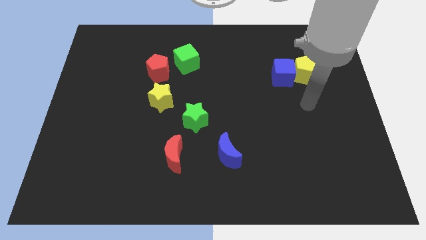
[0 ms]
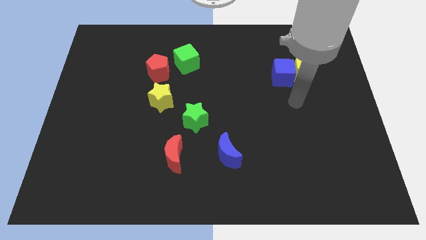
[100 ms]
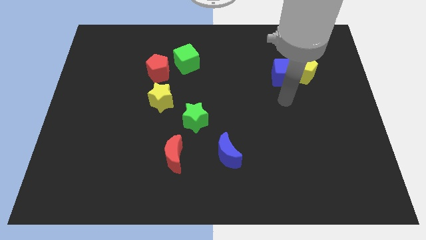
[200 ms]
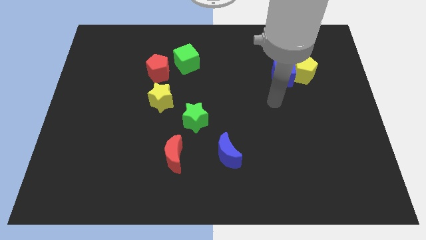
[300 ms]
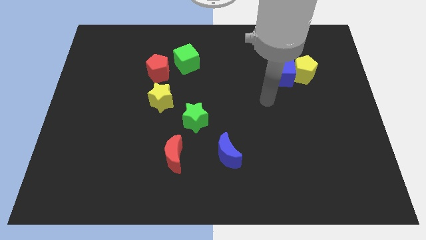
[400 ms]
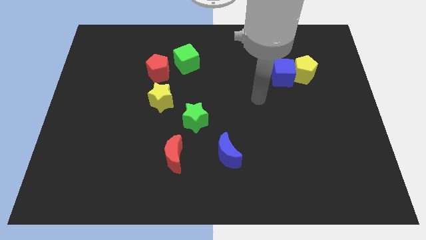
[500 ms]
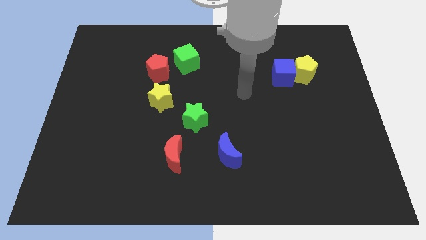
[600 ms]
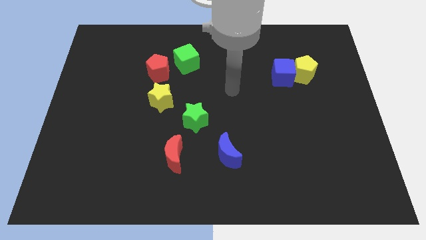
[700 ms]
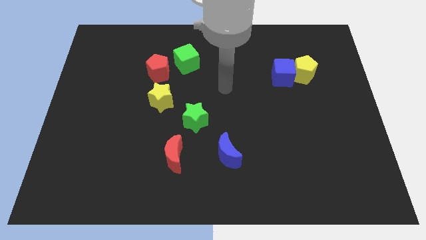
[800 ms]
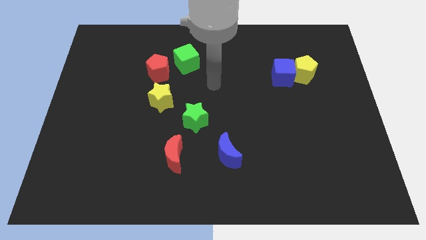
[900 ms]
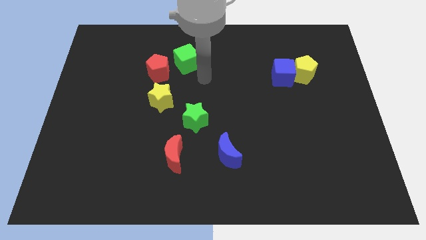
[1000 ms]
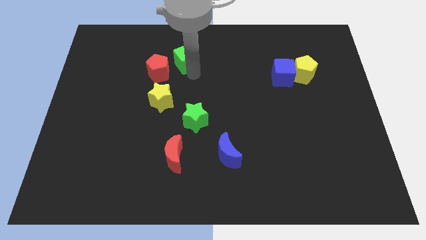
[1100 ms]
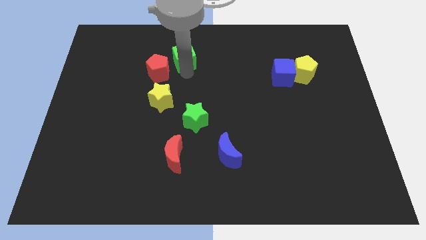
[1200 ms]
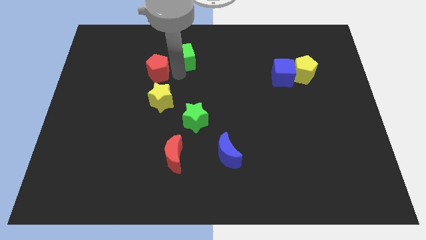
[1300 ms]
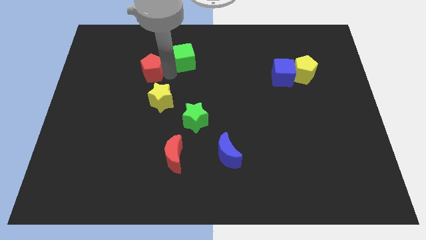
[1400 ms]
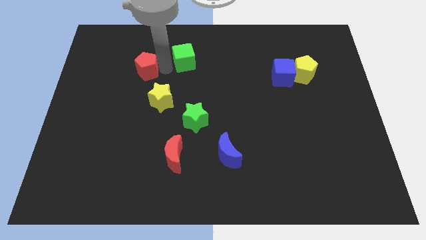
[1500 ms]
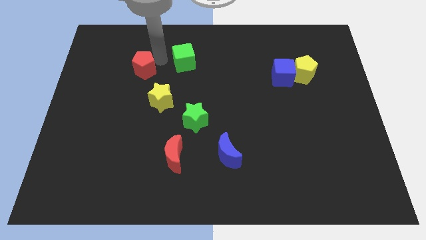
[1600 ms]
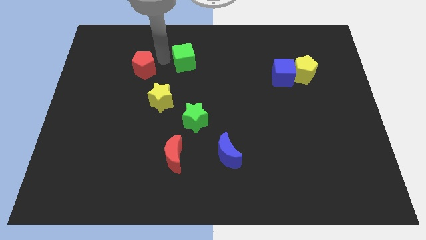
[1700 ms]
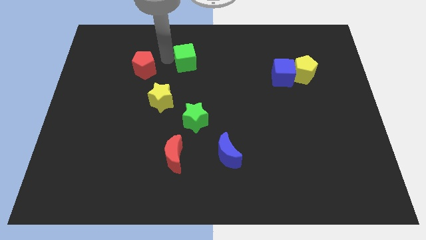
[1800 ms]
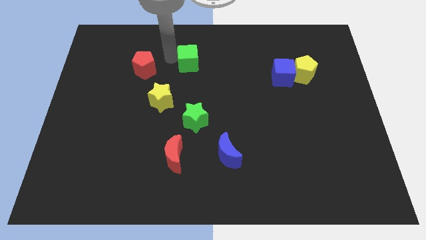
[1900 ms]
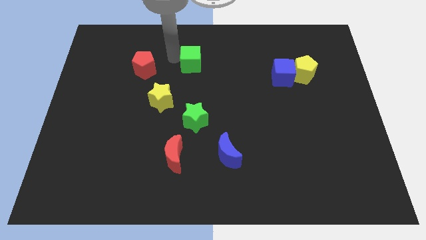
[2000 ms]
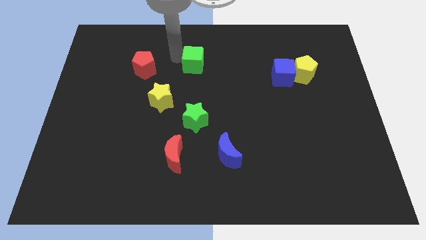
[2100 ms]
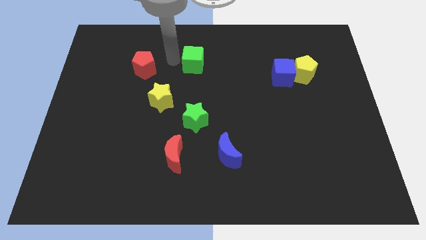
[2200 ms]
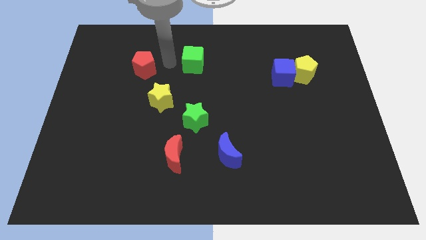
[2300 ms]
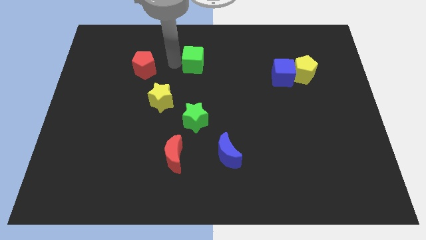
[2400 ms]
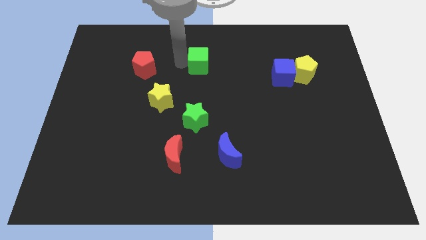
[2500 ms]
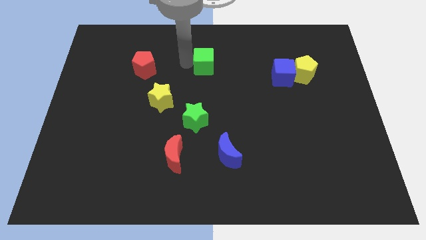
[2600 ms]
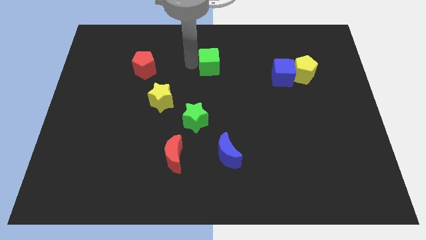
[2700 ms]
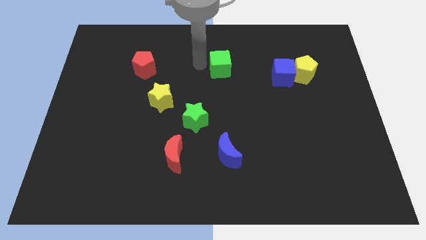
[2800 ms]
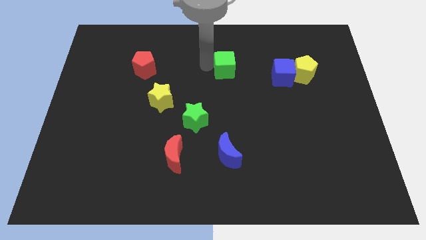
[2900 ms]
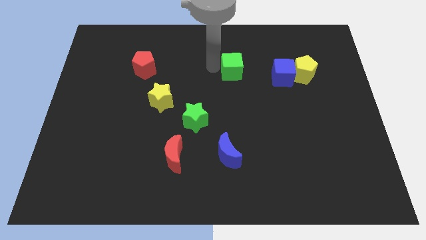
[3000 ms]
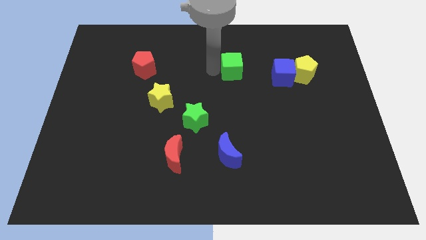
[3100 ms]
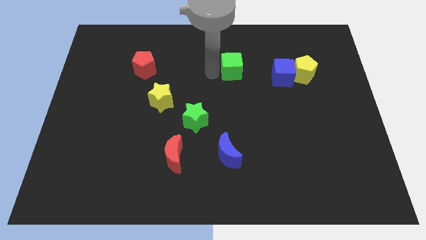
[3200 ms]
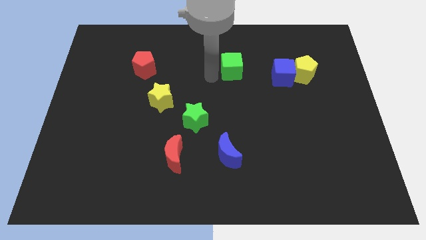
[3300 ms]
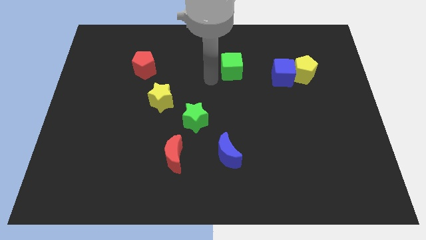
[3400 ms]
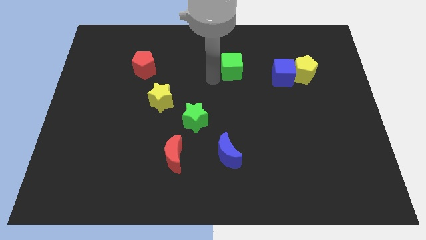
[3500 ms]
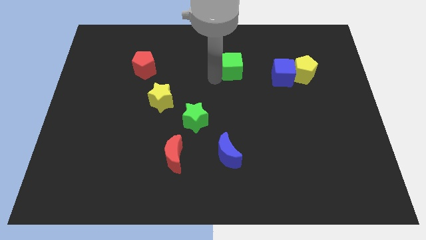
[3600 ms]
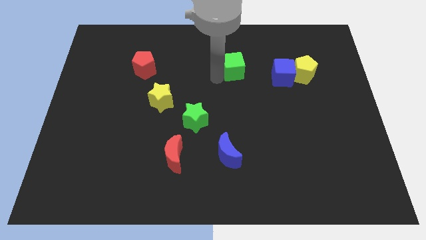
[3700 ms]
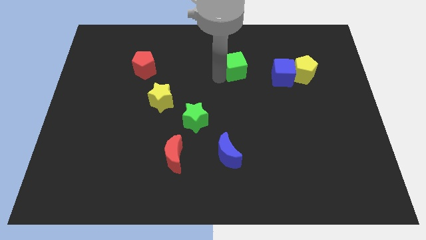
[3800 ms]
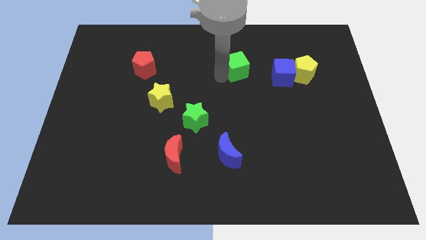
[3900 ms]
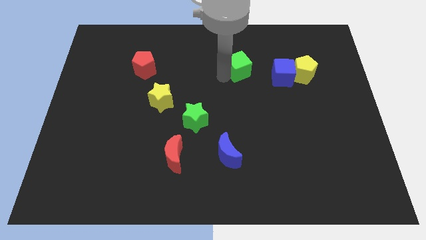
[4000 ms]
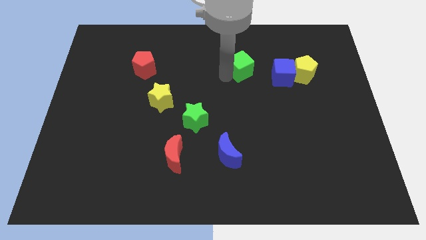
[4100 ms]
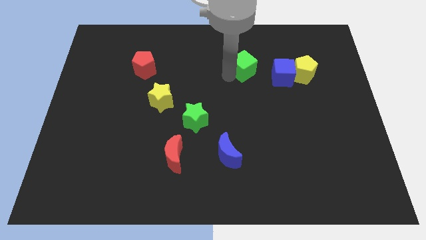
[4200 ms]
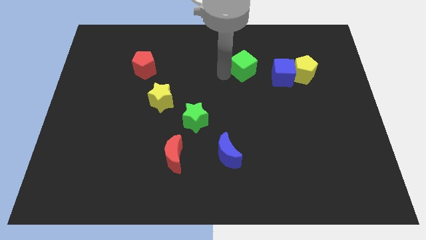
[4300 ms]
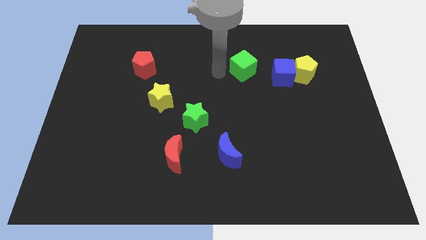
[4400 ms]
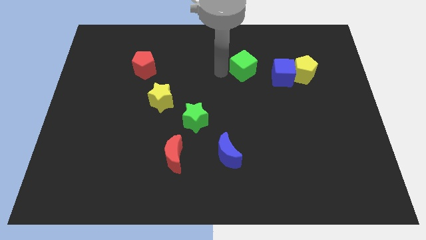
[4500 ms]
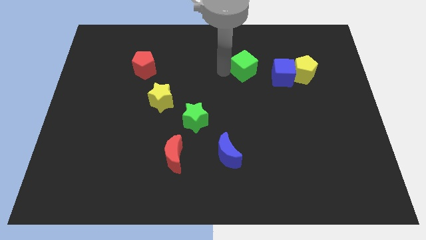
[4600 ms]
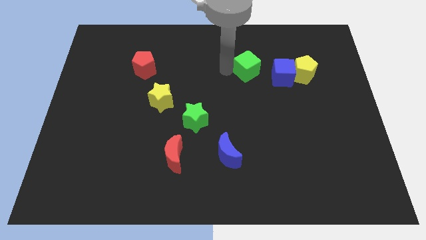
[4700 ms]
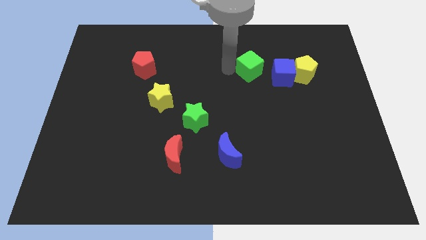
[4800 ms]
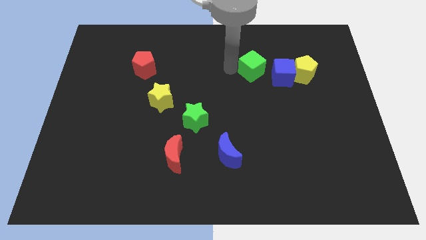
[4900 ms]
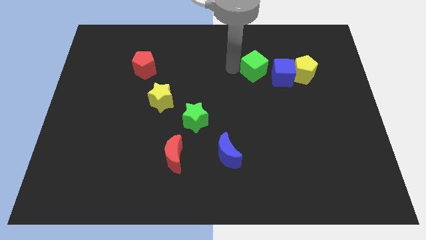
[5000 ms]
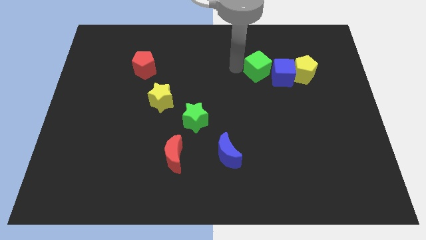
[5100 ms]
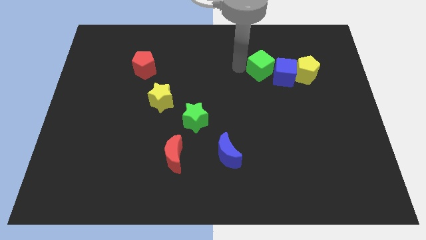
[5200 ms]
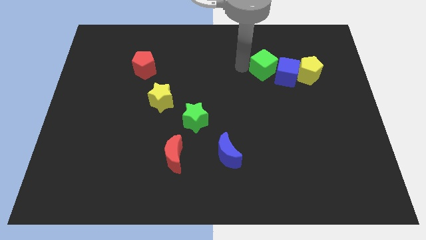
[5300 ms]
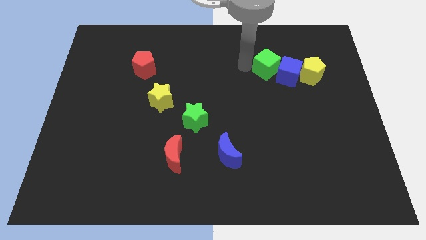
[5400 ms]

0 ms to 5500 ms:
push the green cube to the right

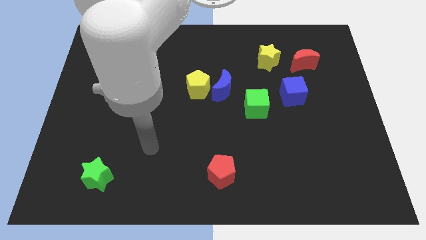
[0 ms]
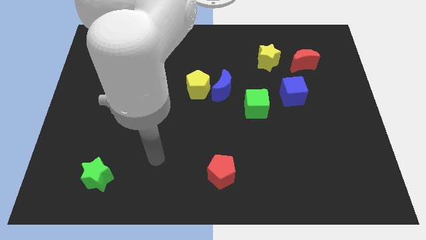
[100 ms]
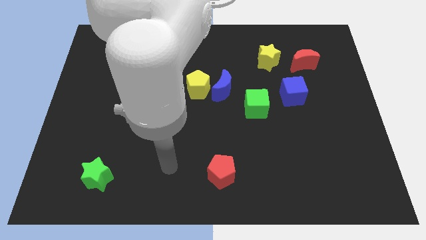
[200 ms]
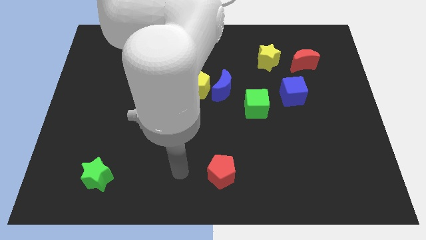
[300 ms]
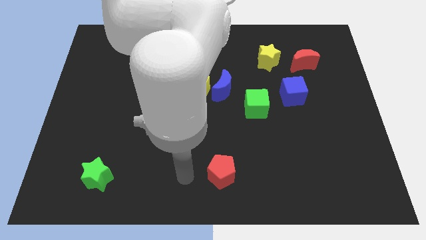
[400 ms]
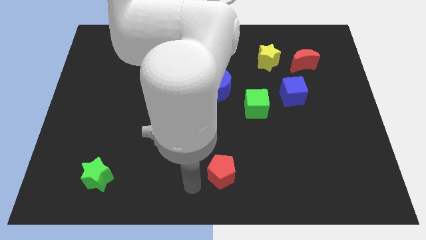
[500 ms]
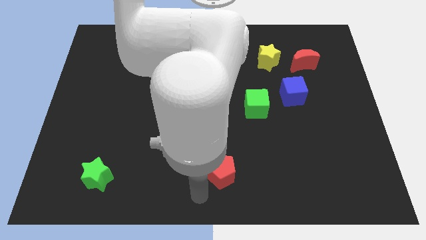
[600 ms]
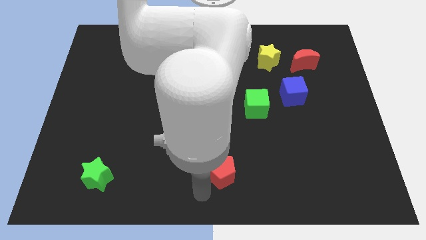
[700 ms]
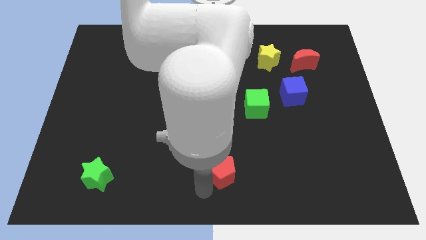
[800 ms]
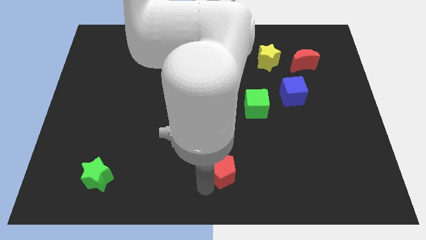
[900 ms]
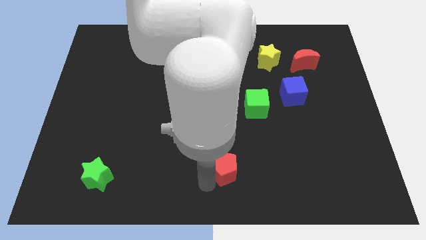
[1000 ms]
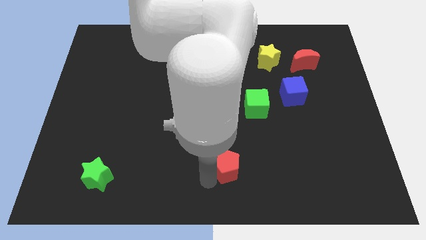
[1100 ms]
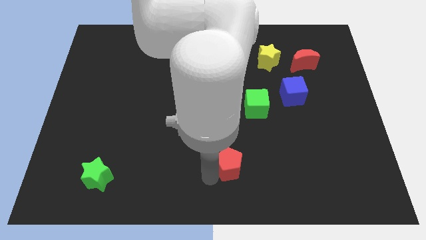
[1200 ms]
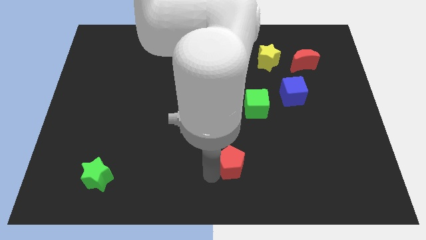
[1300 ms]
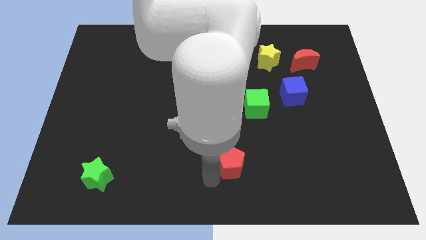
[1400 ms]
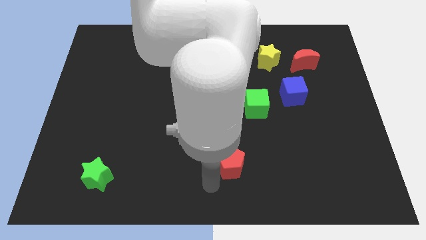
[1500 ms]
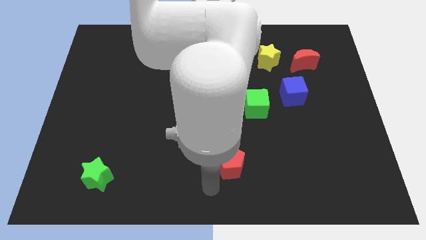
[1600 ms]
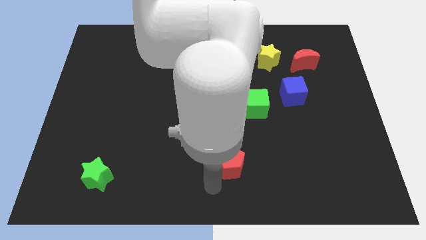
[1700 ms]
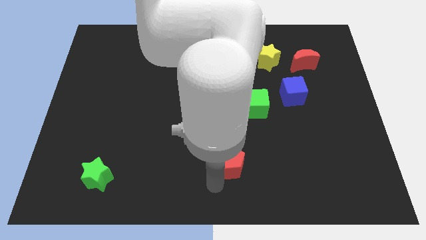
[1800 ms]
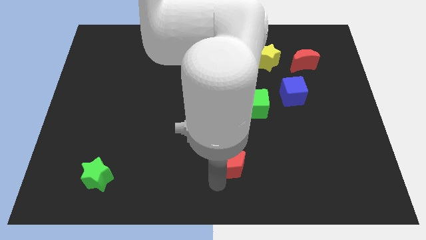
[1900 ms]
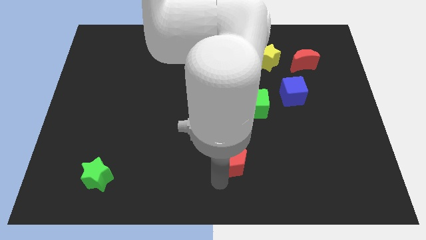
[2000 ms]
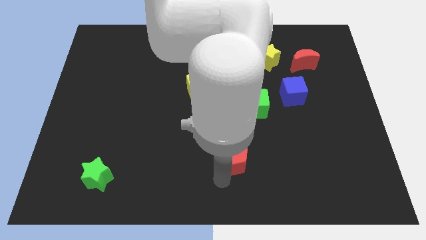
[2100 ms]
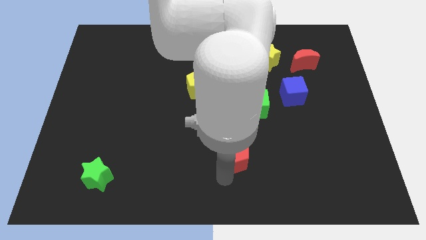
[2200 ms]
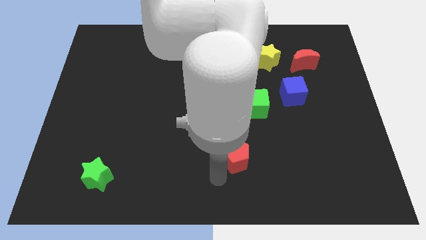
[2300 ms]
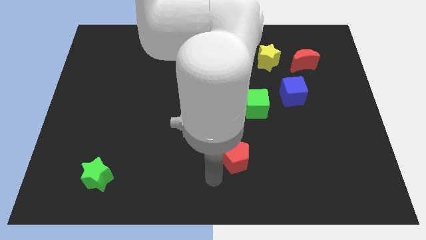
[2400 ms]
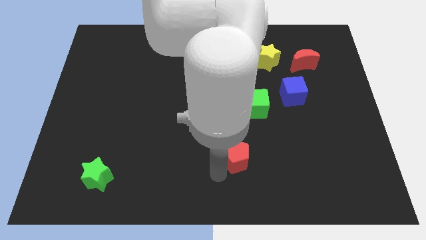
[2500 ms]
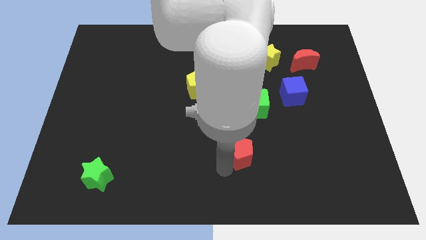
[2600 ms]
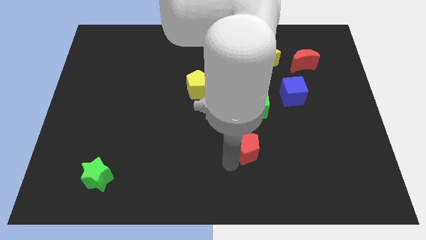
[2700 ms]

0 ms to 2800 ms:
push the red pentagon diagonally upwards and right somewhat
